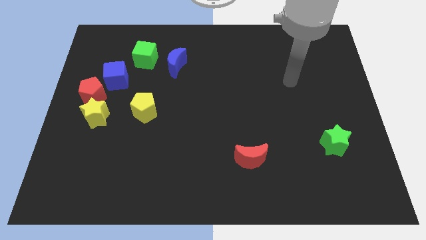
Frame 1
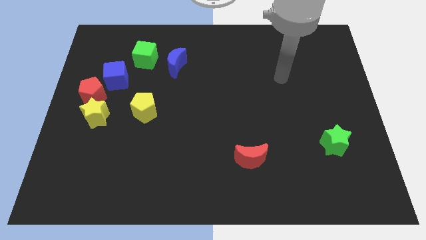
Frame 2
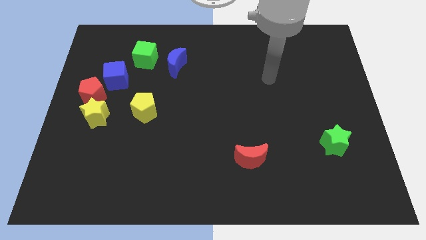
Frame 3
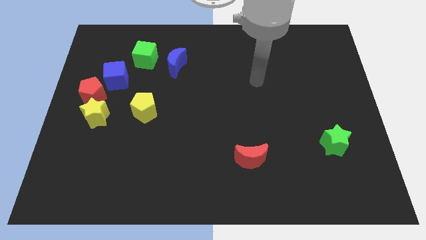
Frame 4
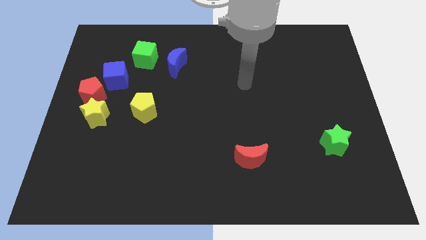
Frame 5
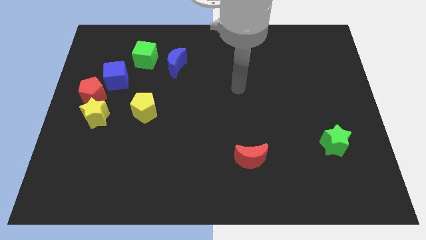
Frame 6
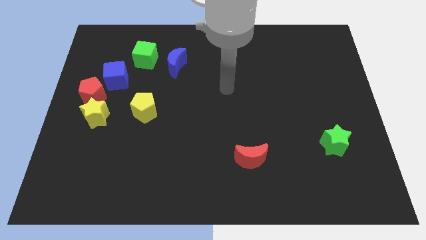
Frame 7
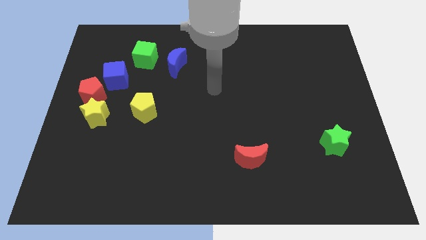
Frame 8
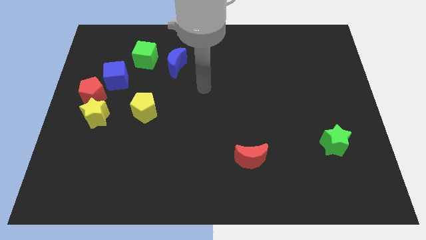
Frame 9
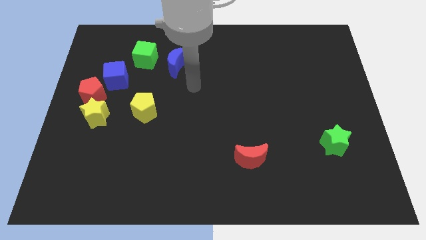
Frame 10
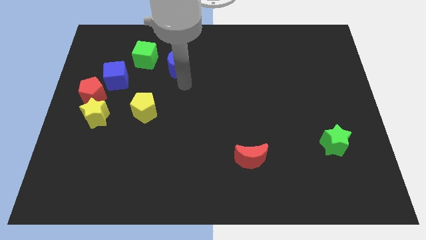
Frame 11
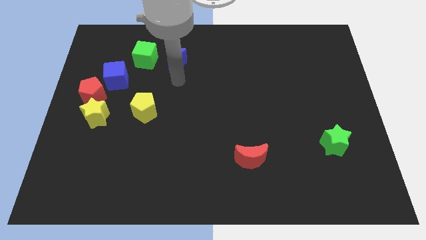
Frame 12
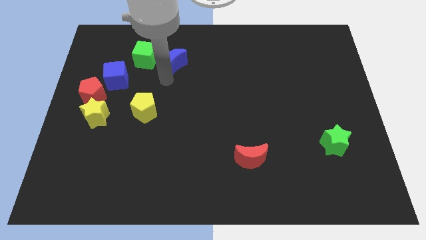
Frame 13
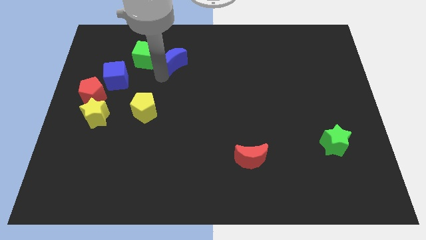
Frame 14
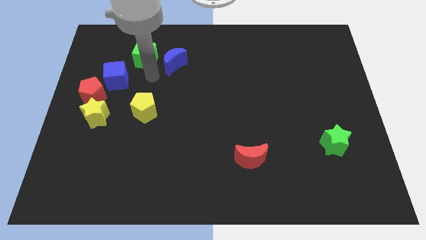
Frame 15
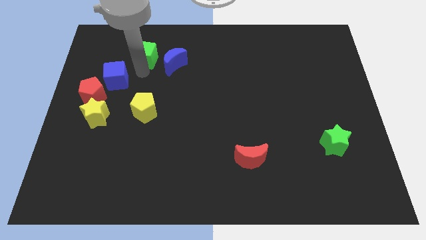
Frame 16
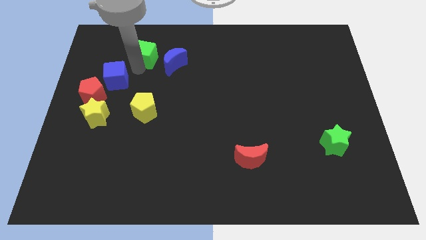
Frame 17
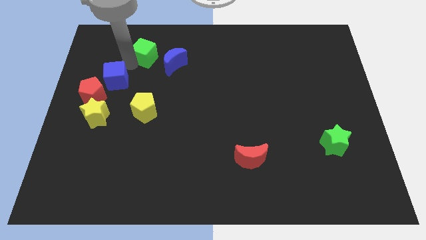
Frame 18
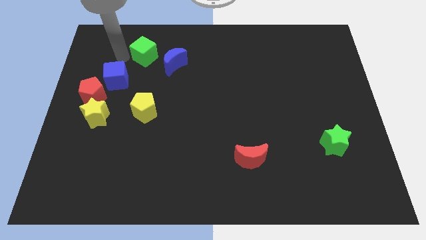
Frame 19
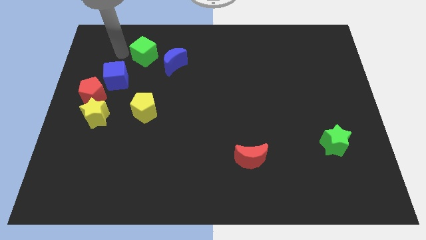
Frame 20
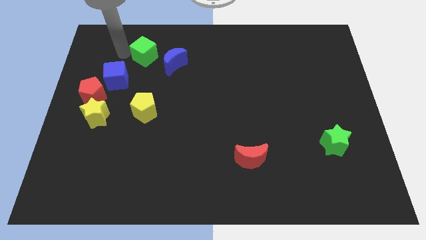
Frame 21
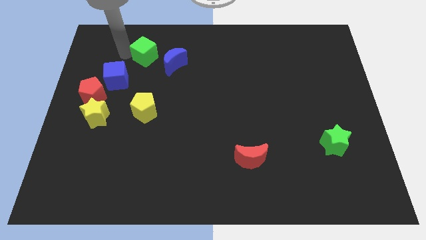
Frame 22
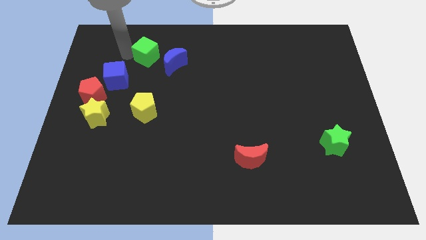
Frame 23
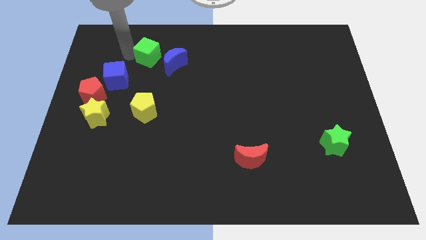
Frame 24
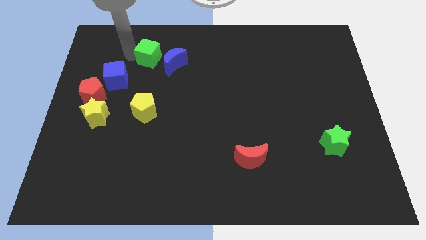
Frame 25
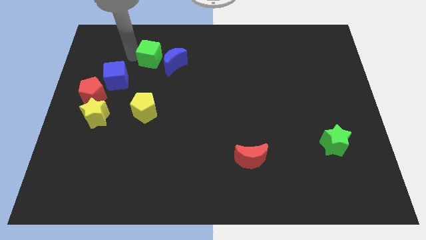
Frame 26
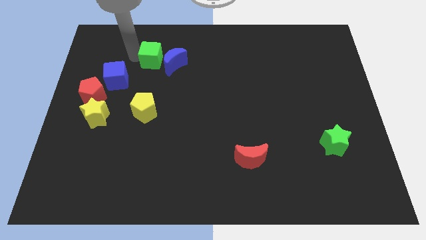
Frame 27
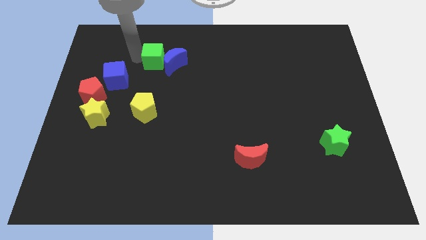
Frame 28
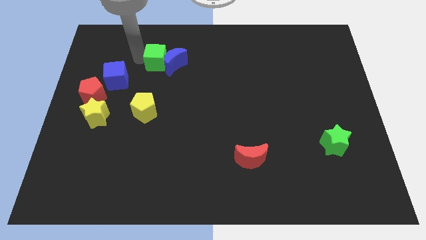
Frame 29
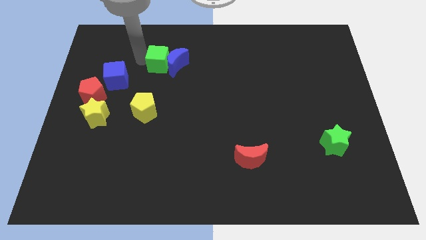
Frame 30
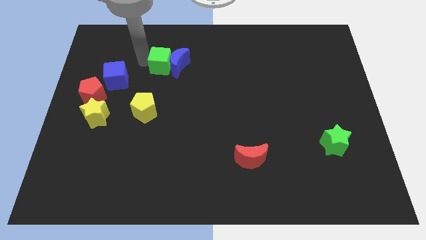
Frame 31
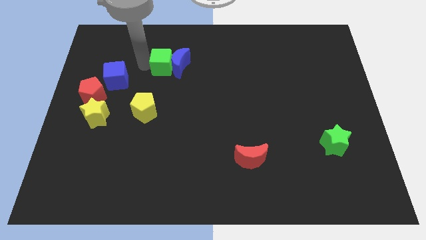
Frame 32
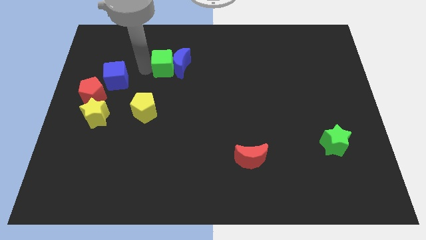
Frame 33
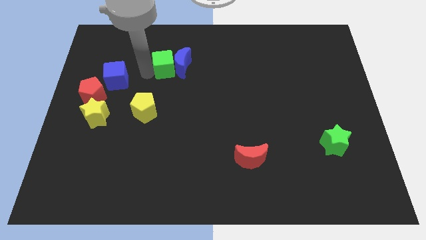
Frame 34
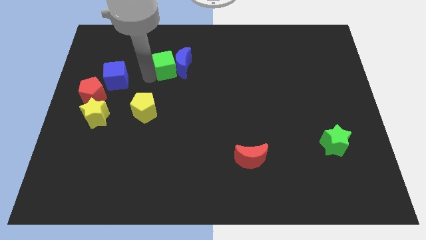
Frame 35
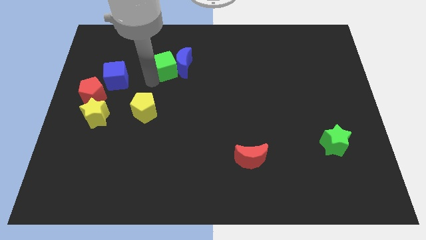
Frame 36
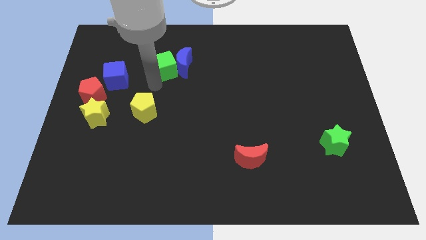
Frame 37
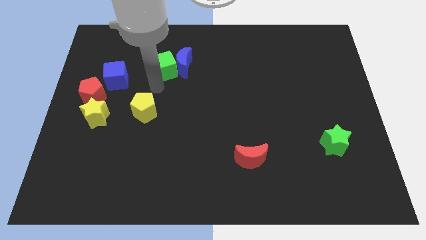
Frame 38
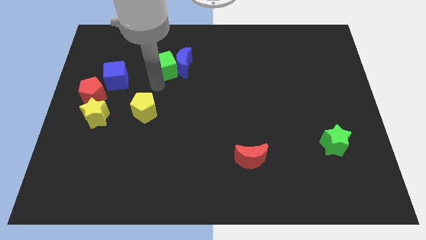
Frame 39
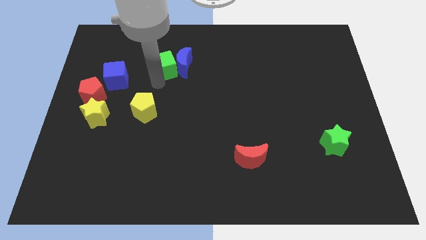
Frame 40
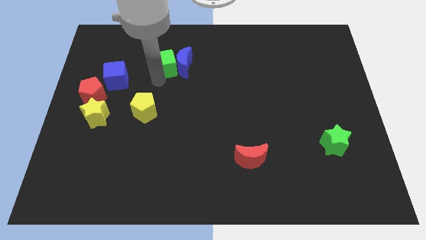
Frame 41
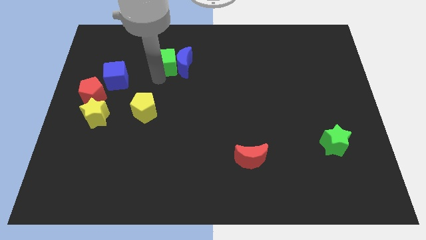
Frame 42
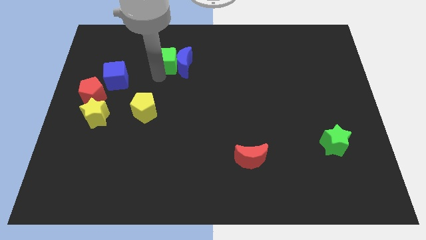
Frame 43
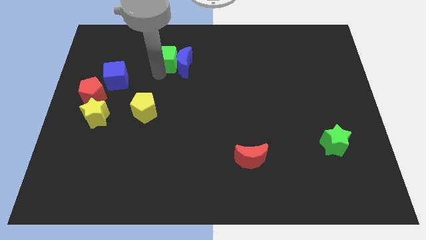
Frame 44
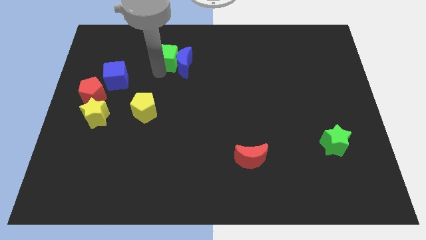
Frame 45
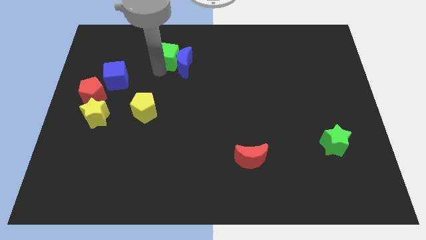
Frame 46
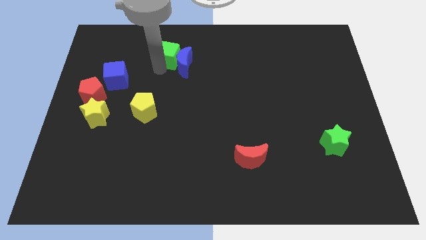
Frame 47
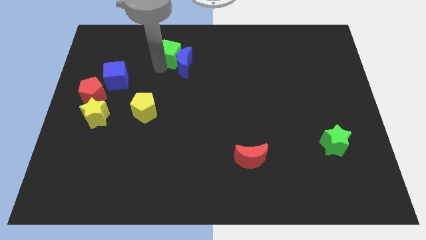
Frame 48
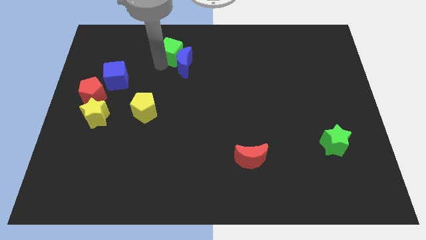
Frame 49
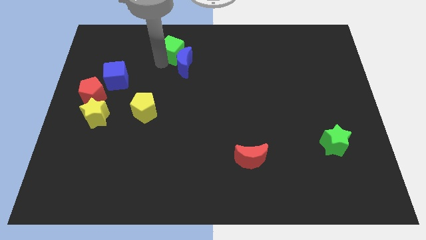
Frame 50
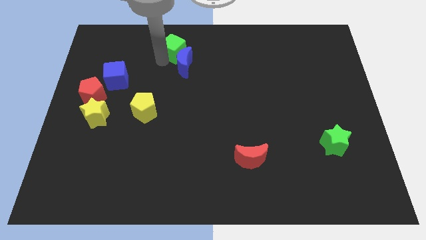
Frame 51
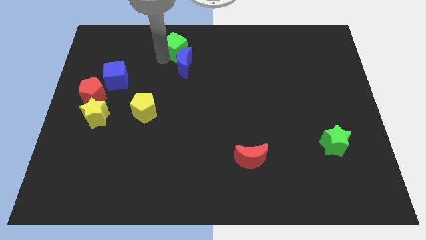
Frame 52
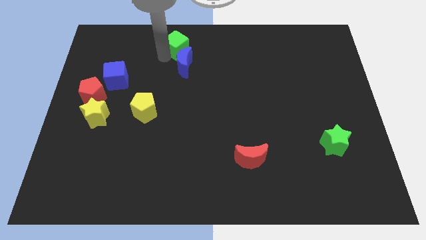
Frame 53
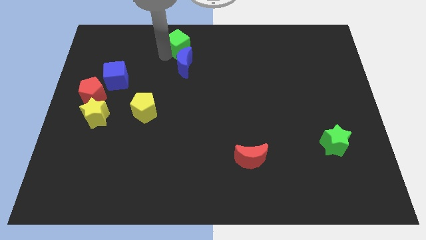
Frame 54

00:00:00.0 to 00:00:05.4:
push the green cube to the top

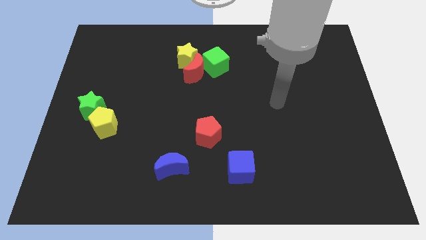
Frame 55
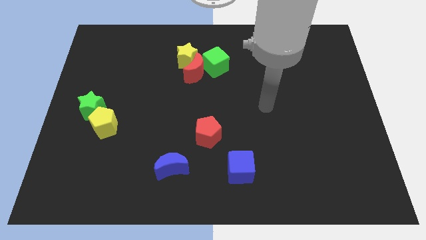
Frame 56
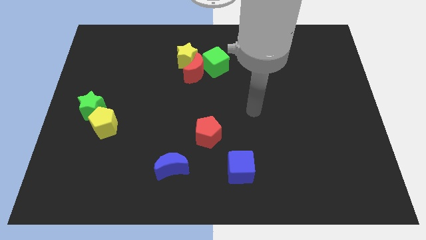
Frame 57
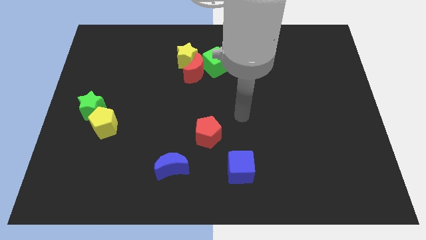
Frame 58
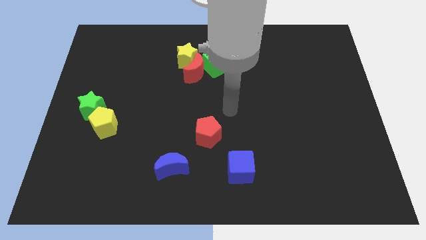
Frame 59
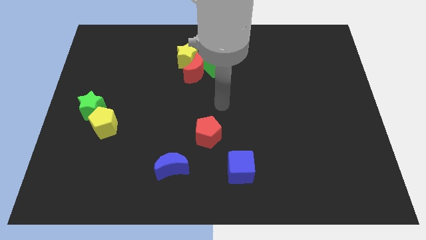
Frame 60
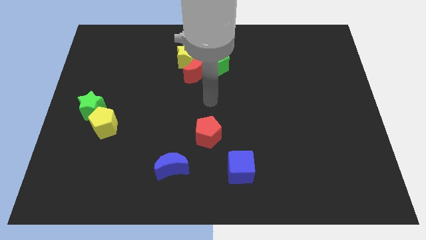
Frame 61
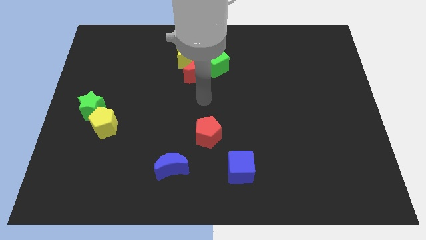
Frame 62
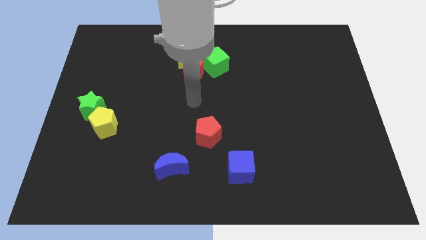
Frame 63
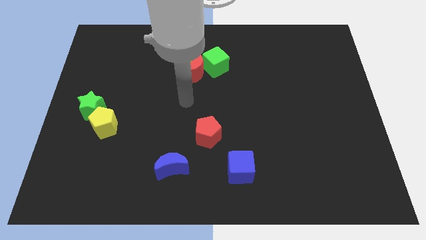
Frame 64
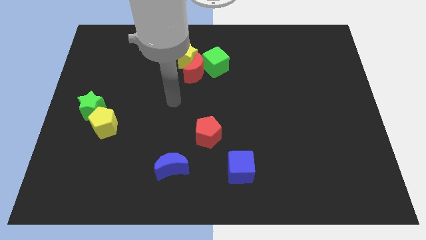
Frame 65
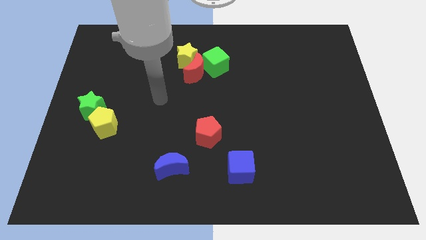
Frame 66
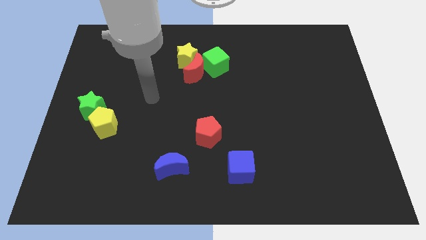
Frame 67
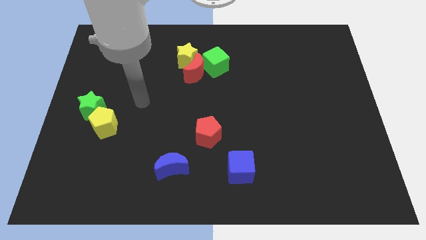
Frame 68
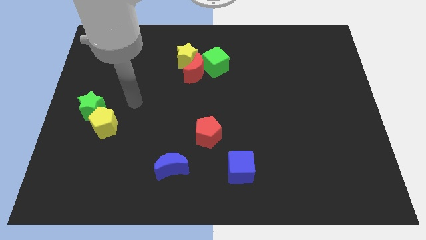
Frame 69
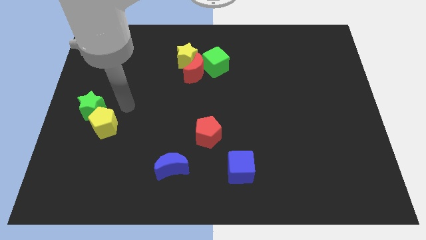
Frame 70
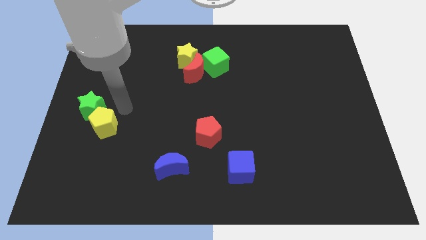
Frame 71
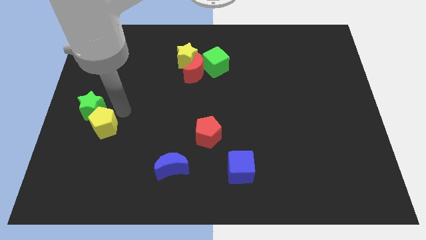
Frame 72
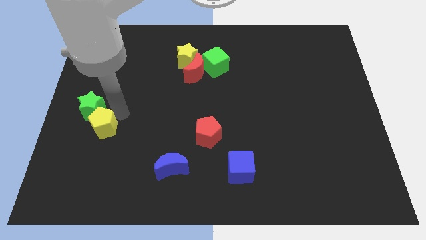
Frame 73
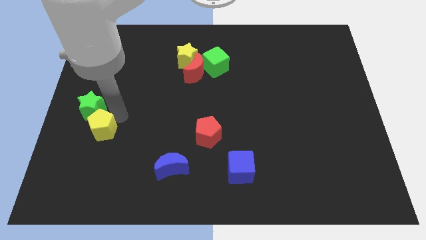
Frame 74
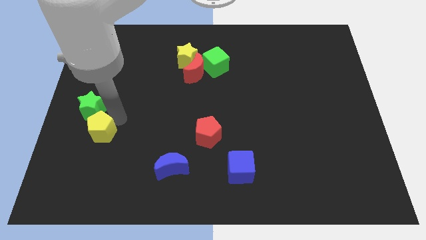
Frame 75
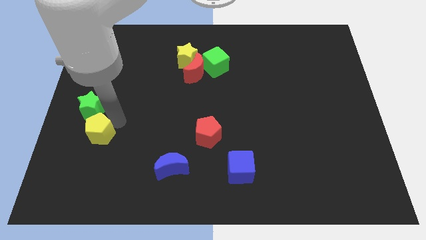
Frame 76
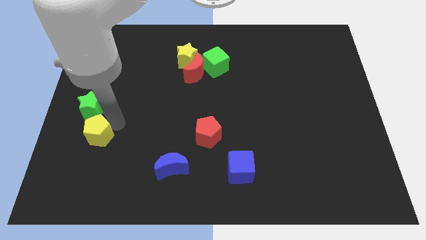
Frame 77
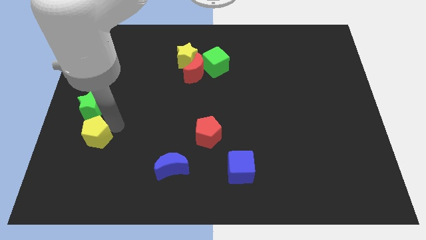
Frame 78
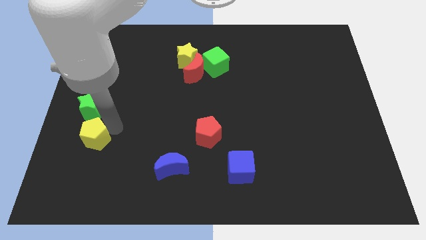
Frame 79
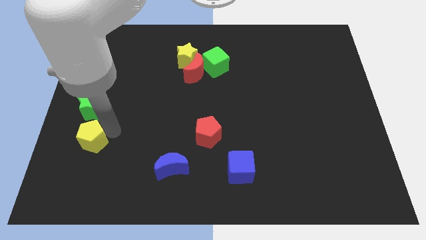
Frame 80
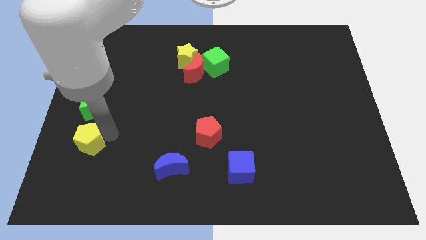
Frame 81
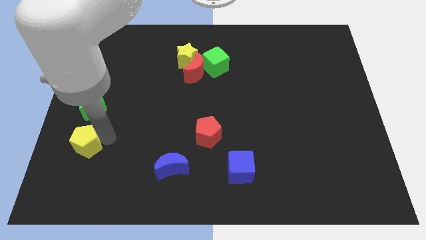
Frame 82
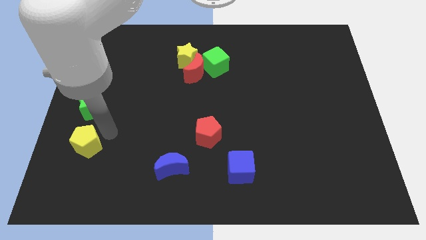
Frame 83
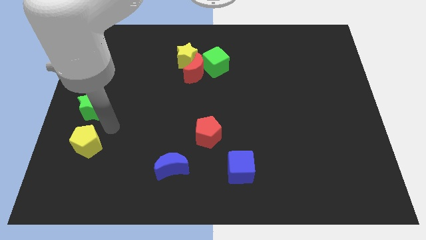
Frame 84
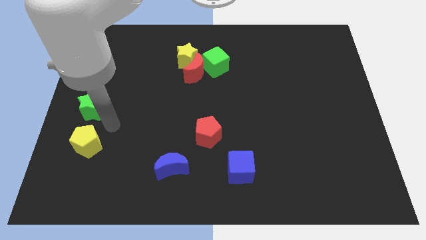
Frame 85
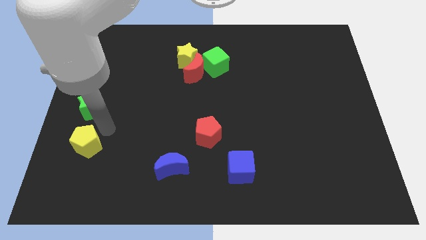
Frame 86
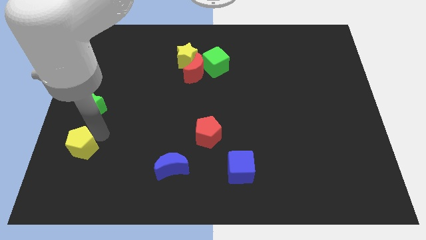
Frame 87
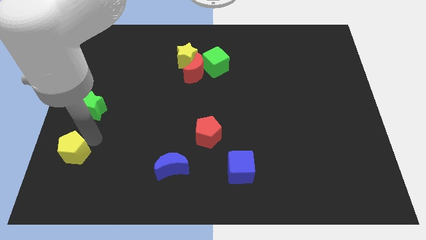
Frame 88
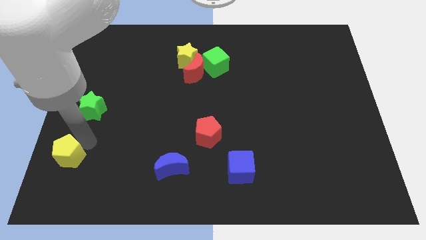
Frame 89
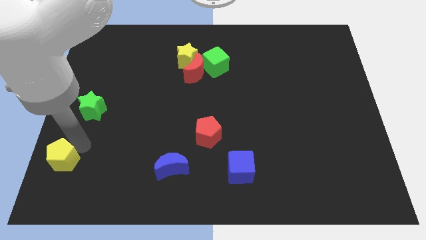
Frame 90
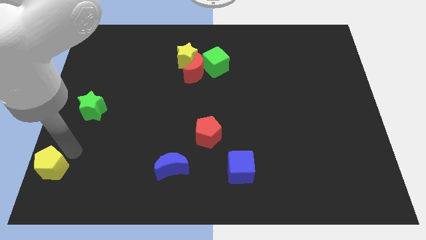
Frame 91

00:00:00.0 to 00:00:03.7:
move the yellow pentagon to the lower left corner
